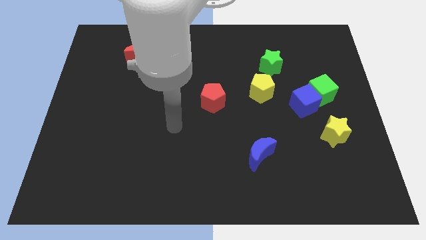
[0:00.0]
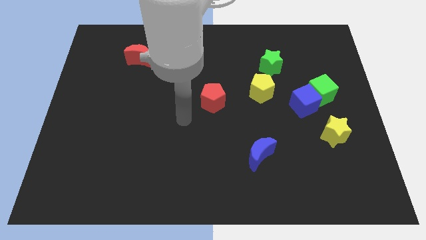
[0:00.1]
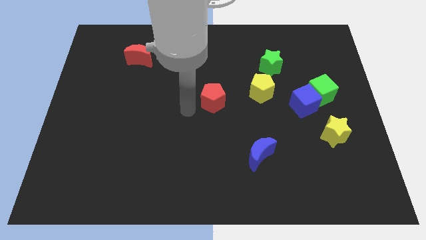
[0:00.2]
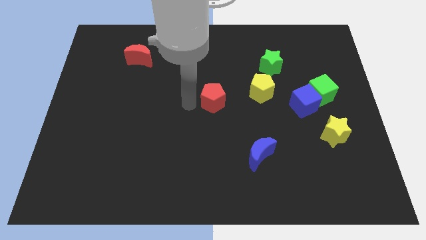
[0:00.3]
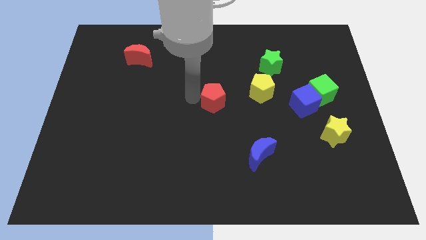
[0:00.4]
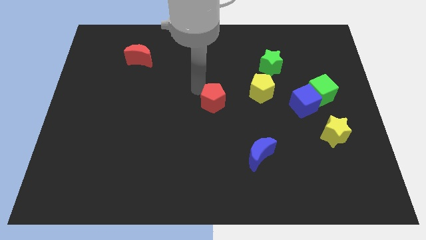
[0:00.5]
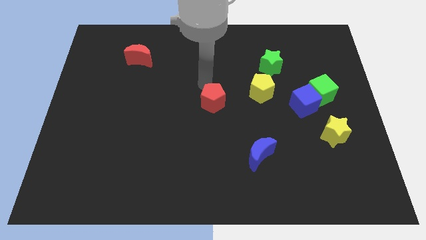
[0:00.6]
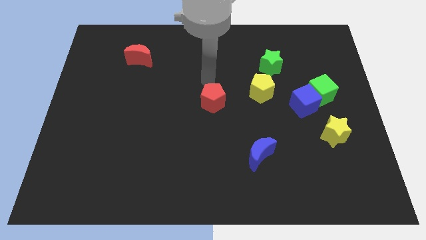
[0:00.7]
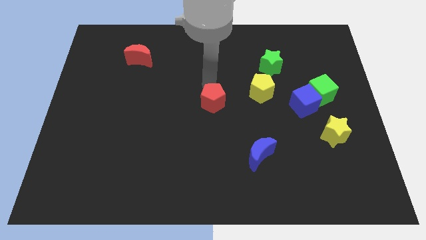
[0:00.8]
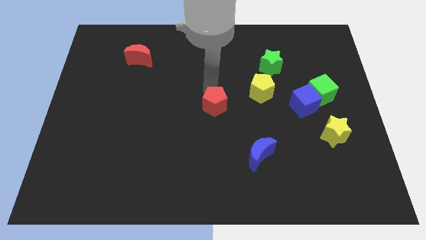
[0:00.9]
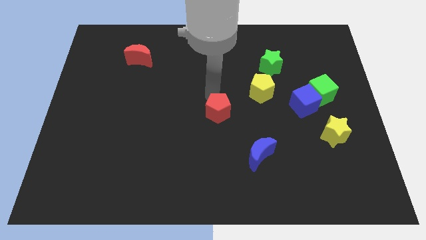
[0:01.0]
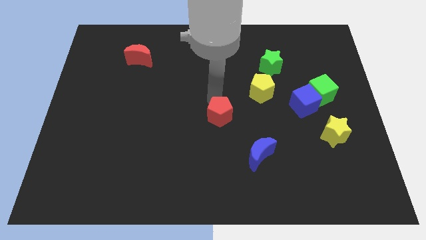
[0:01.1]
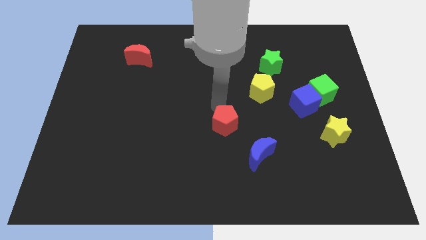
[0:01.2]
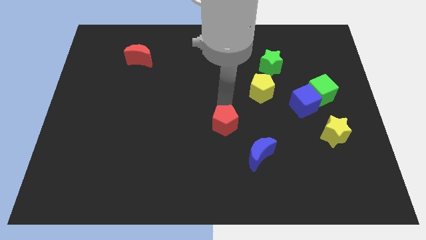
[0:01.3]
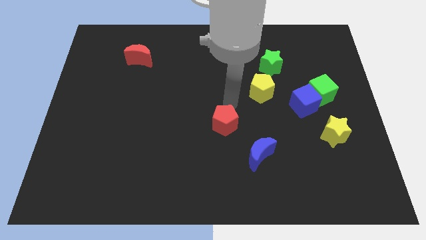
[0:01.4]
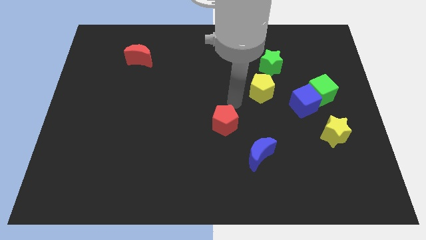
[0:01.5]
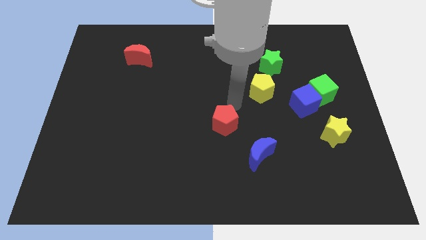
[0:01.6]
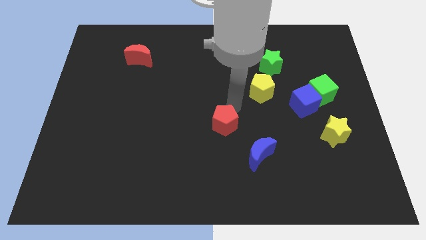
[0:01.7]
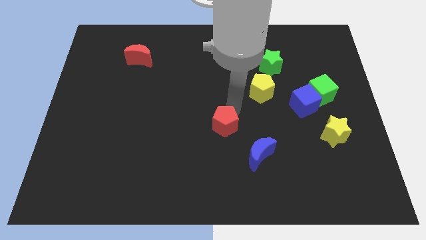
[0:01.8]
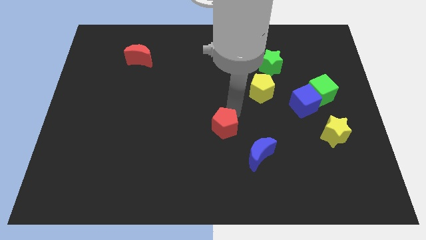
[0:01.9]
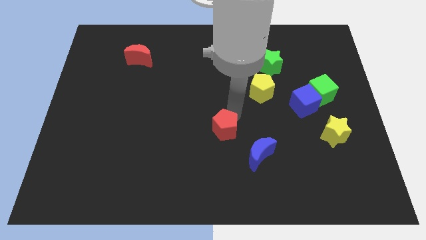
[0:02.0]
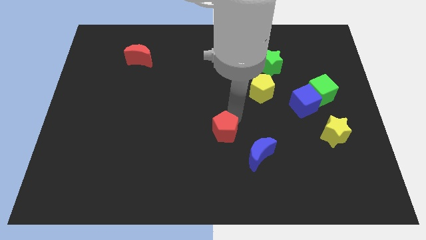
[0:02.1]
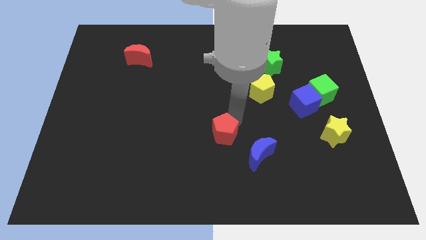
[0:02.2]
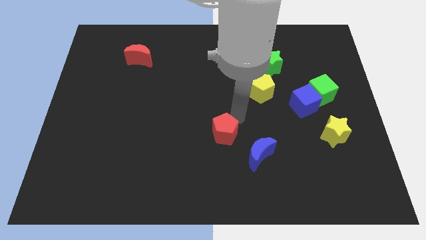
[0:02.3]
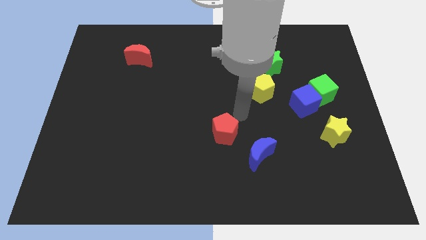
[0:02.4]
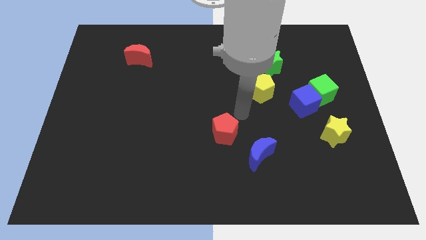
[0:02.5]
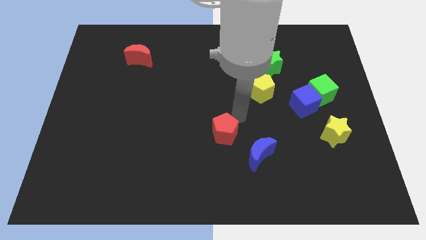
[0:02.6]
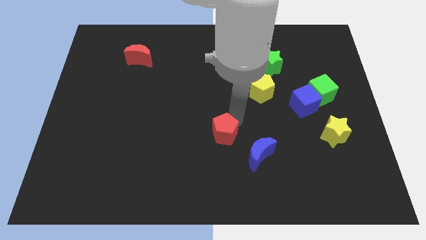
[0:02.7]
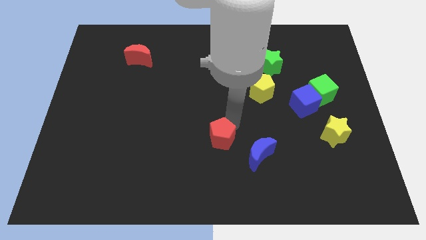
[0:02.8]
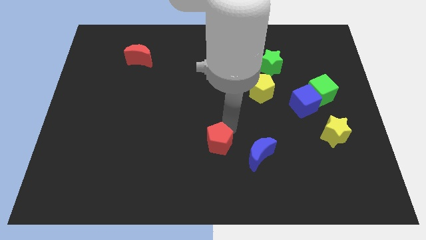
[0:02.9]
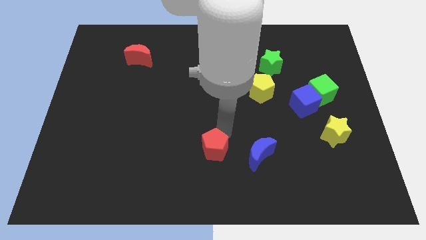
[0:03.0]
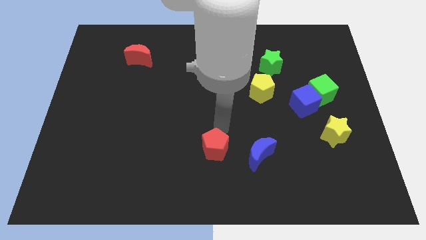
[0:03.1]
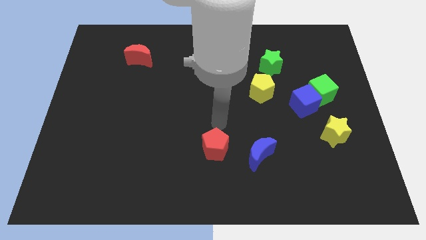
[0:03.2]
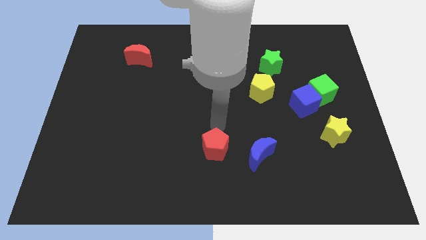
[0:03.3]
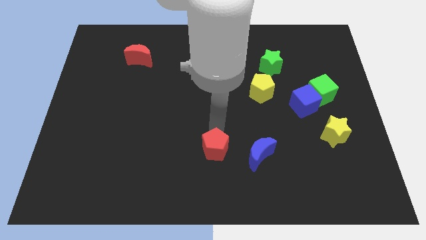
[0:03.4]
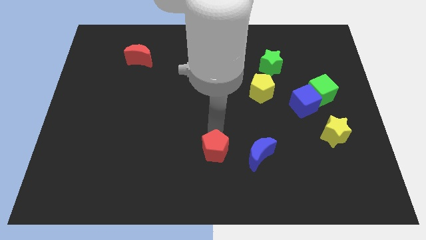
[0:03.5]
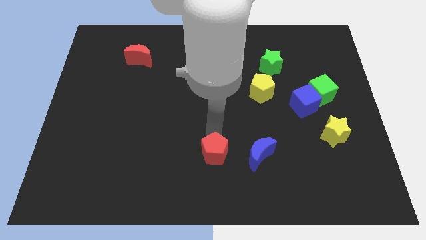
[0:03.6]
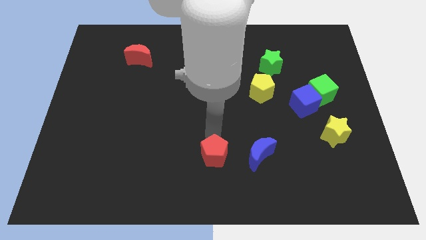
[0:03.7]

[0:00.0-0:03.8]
push the red pentagon to the bottom side

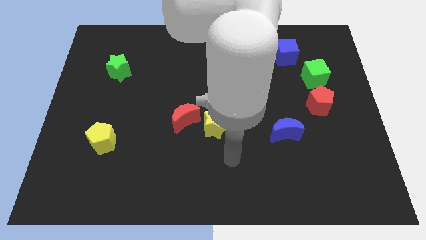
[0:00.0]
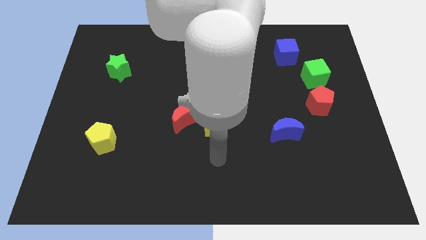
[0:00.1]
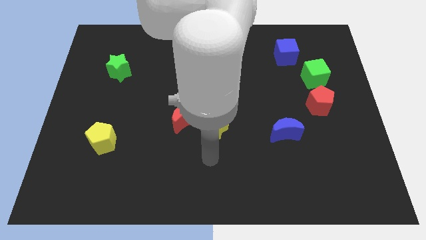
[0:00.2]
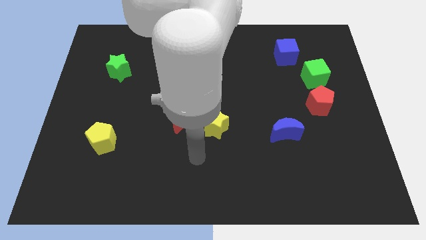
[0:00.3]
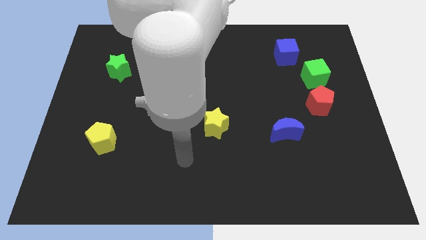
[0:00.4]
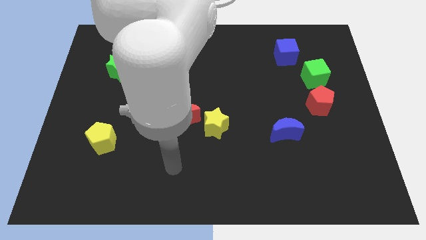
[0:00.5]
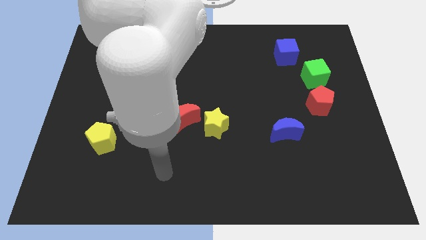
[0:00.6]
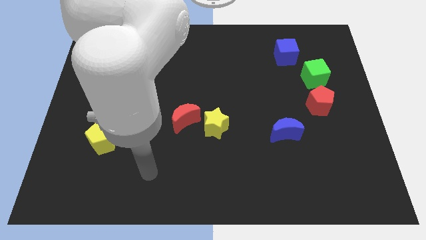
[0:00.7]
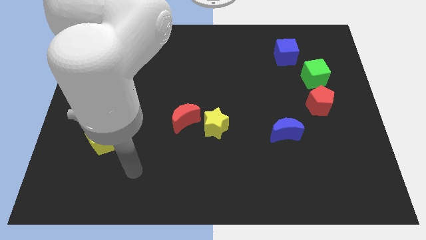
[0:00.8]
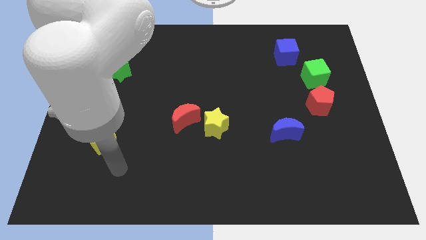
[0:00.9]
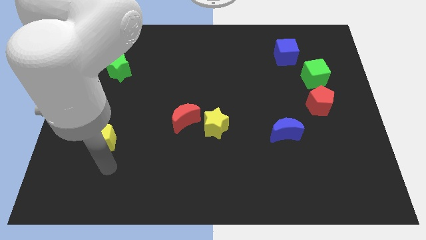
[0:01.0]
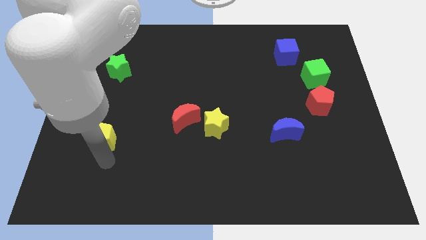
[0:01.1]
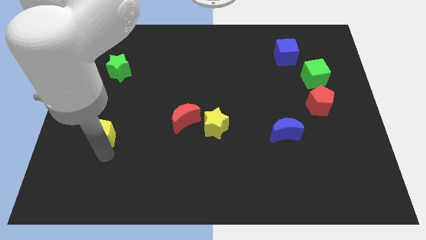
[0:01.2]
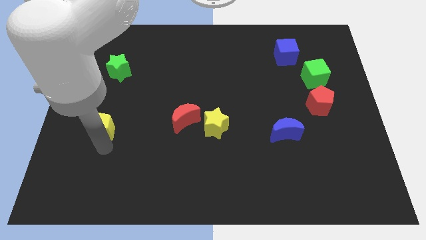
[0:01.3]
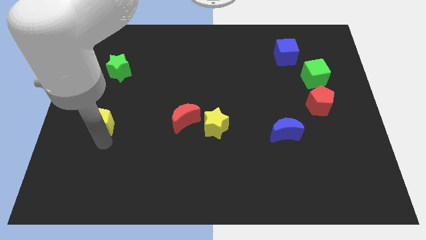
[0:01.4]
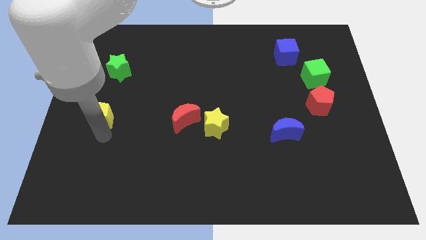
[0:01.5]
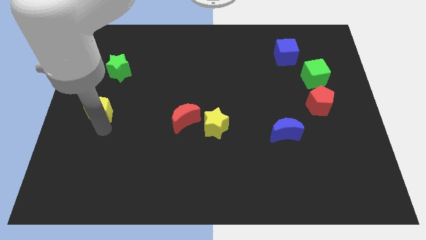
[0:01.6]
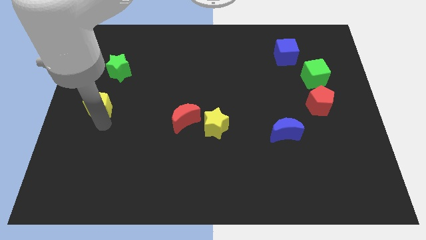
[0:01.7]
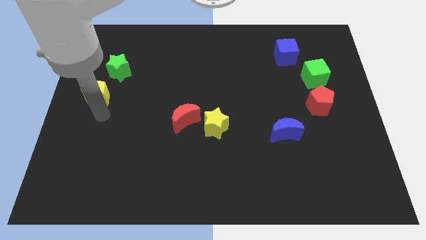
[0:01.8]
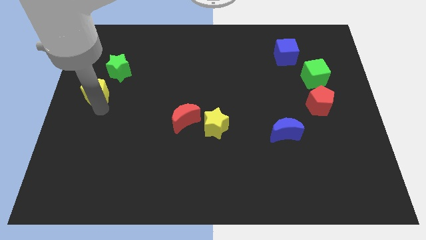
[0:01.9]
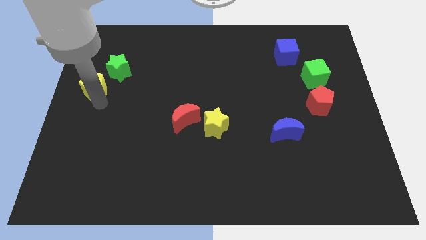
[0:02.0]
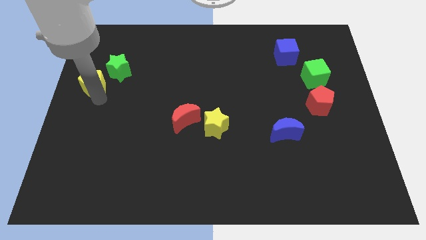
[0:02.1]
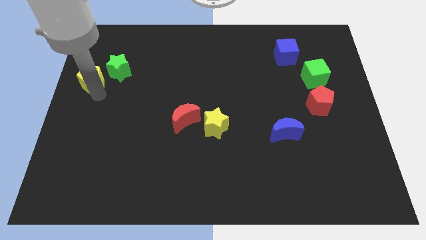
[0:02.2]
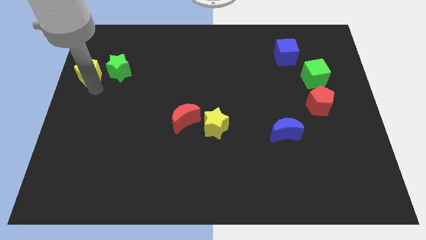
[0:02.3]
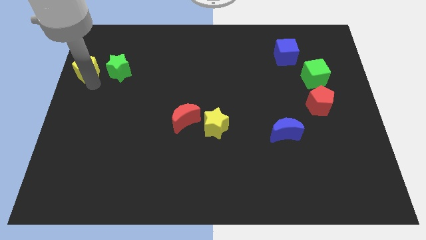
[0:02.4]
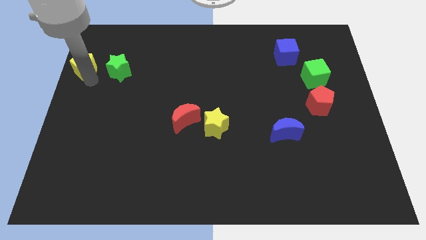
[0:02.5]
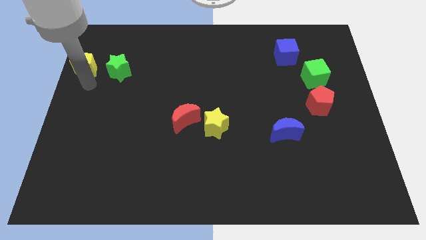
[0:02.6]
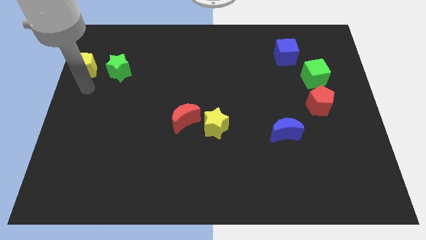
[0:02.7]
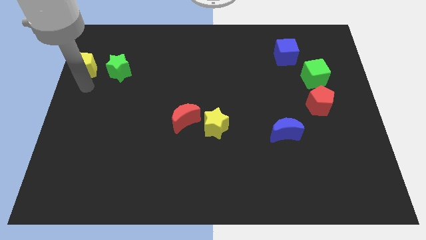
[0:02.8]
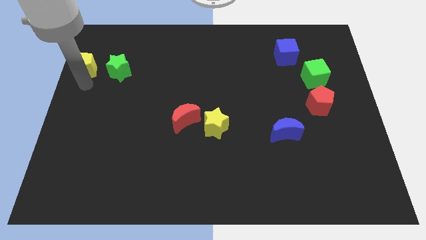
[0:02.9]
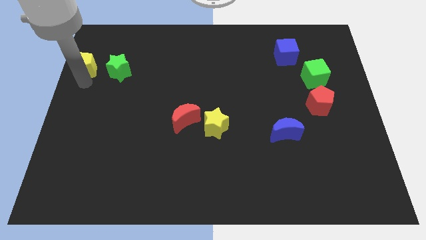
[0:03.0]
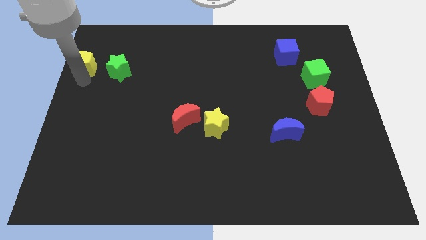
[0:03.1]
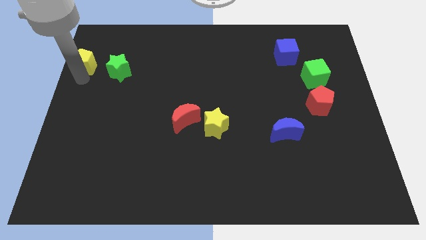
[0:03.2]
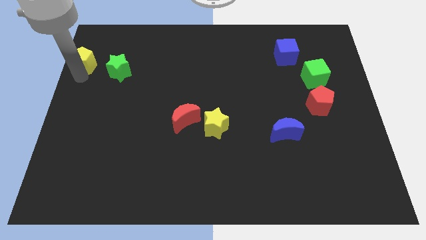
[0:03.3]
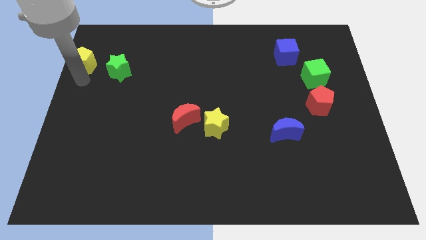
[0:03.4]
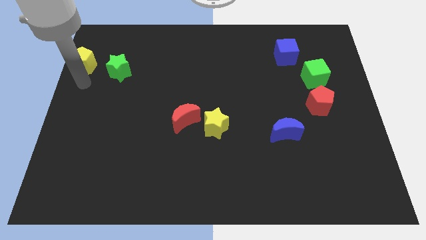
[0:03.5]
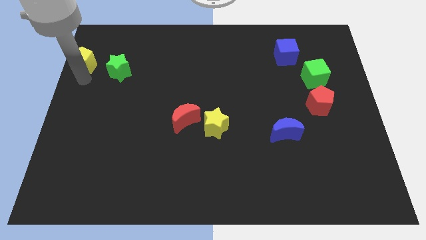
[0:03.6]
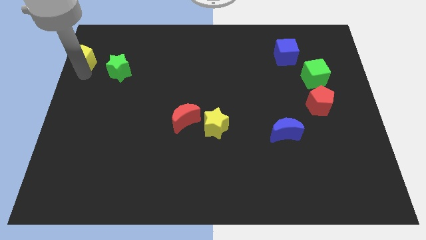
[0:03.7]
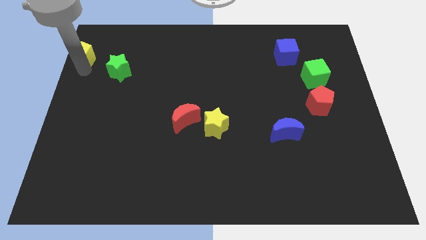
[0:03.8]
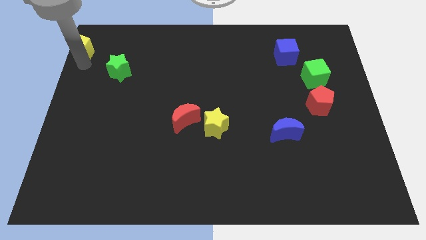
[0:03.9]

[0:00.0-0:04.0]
move the yellow pentagon to the top left

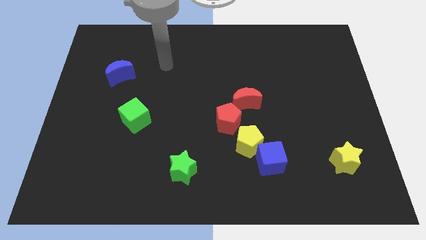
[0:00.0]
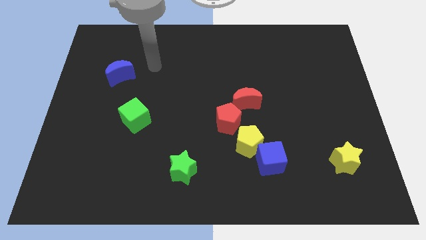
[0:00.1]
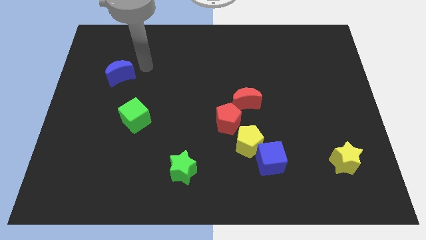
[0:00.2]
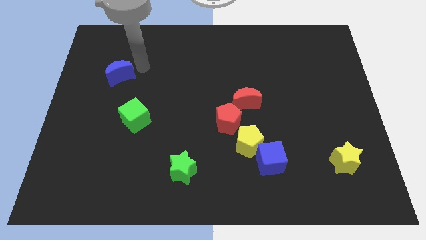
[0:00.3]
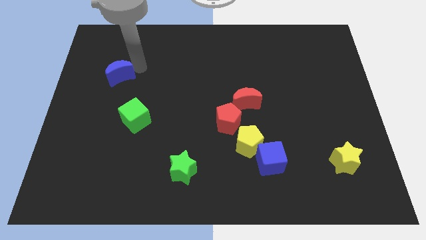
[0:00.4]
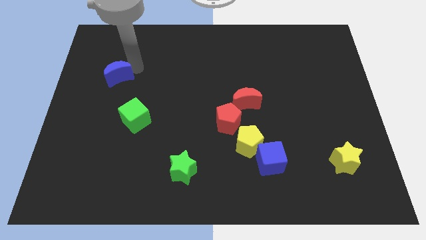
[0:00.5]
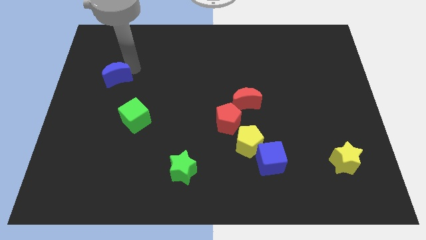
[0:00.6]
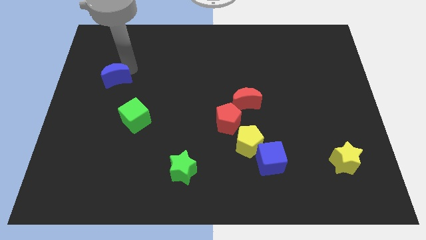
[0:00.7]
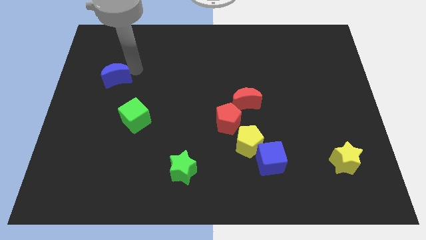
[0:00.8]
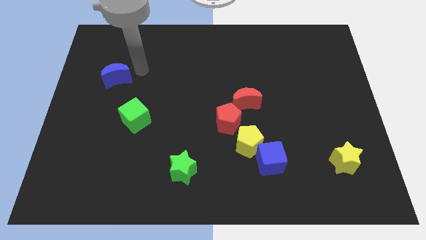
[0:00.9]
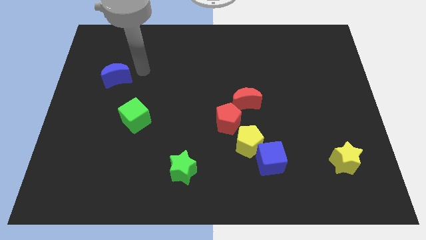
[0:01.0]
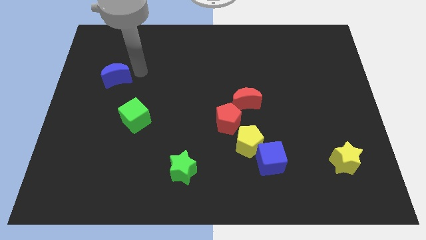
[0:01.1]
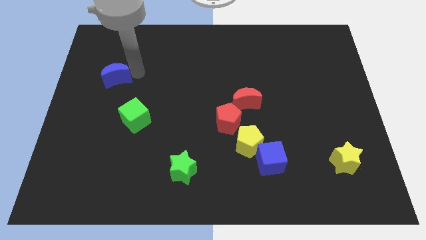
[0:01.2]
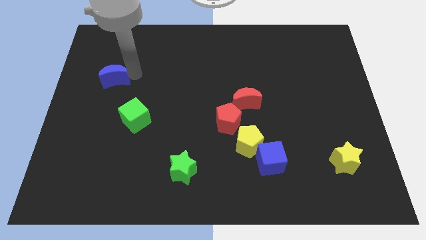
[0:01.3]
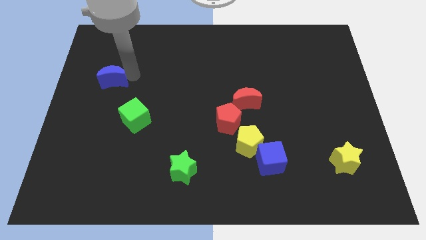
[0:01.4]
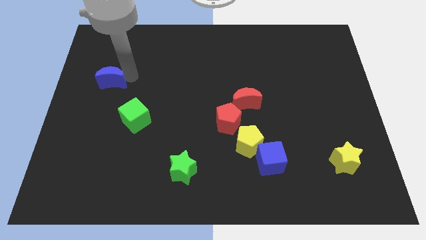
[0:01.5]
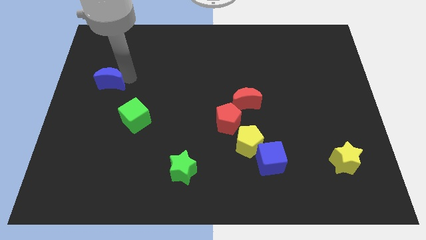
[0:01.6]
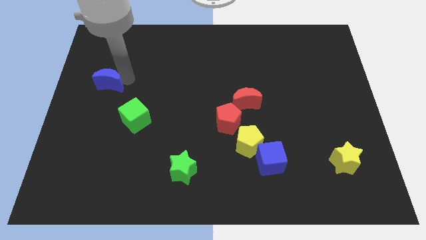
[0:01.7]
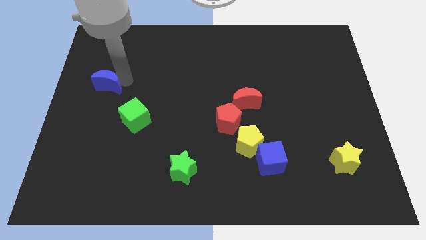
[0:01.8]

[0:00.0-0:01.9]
push the blue moon to the left side of the board
